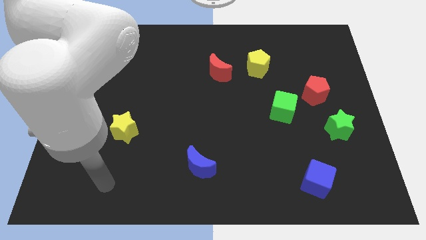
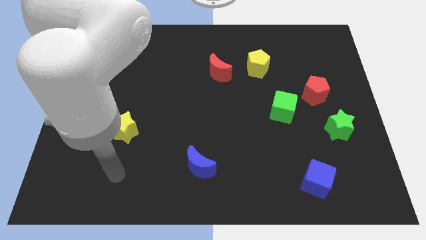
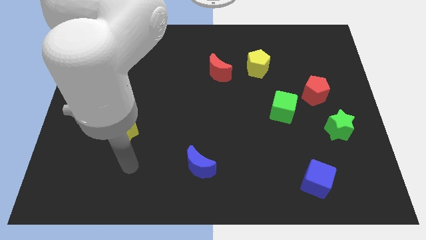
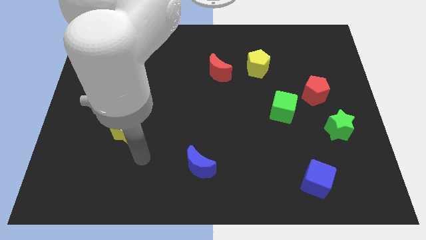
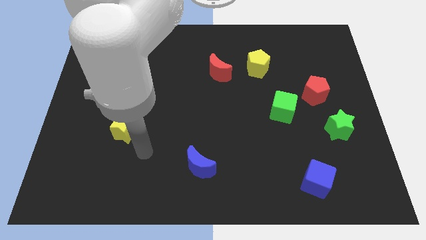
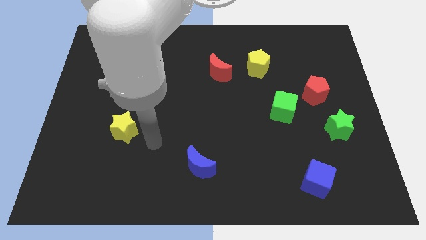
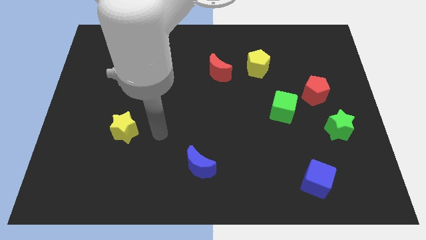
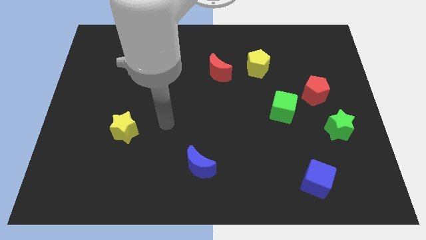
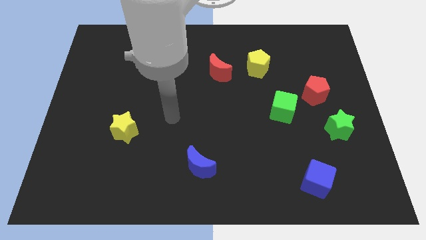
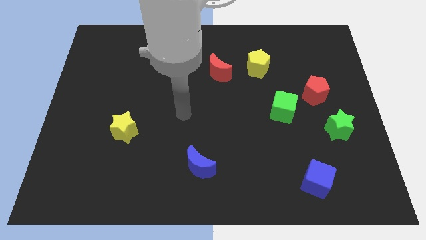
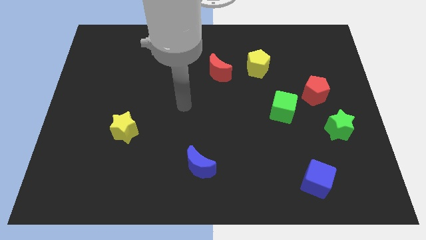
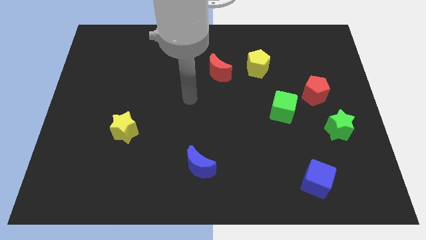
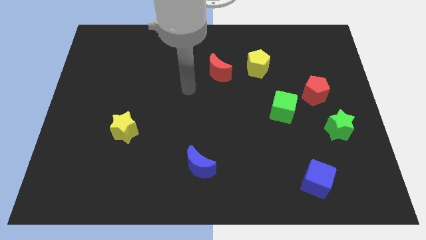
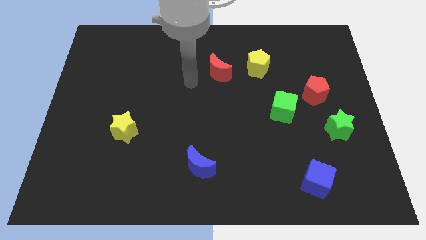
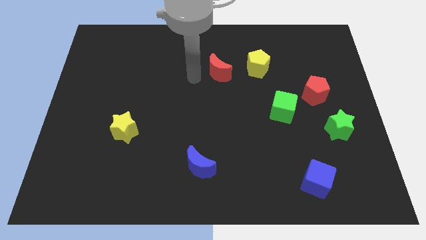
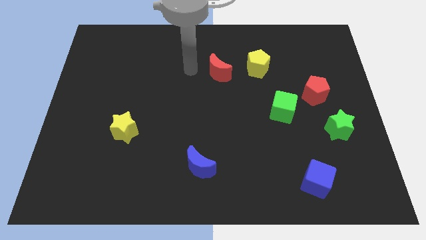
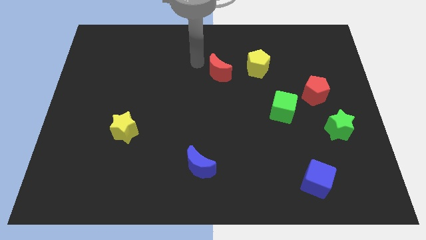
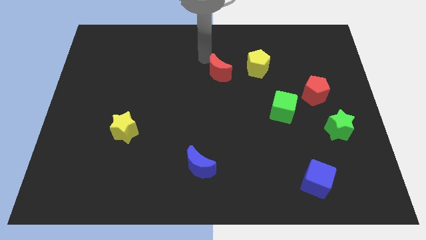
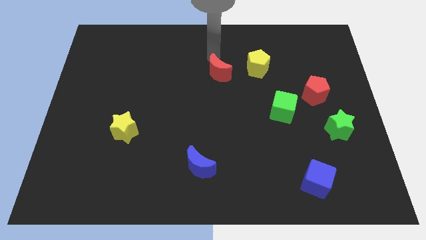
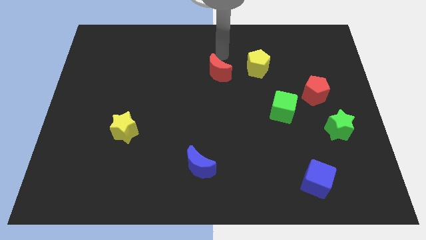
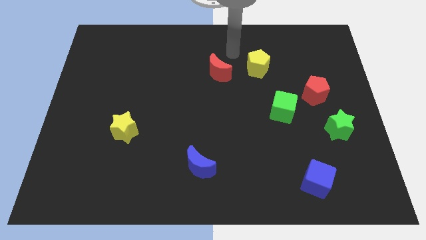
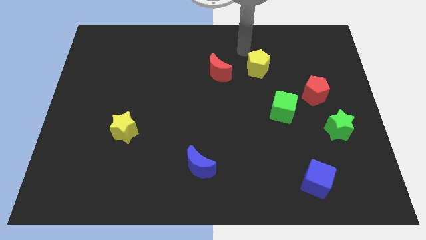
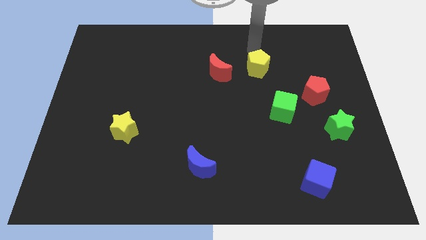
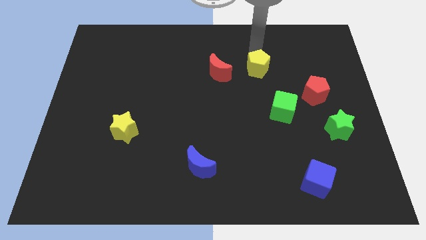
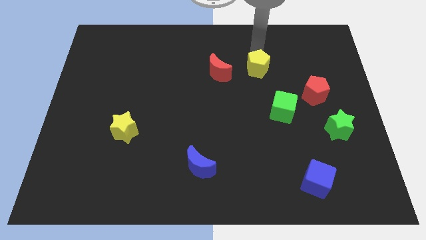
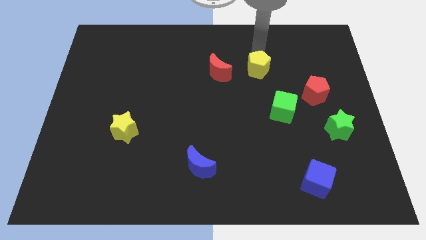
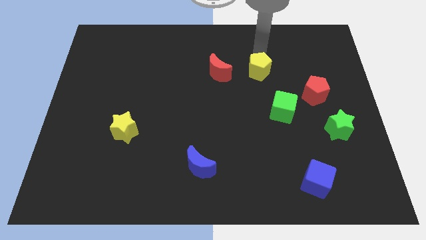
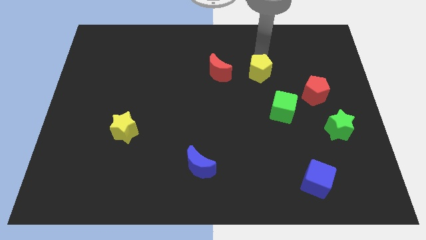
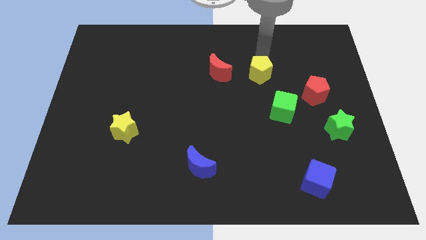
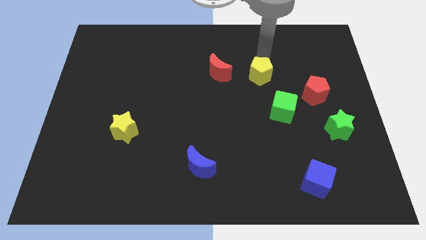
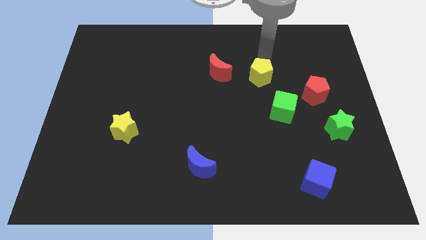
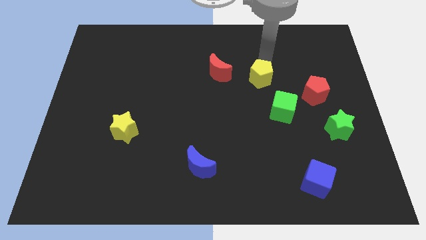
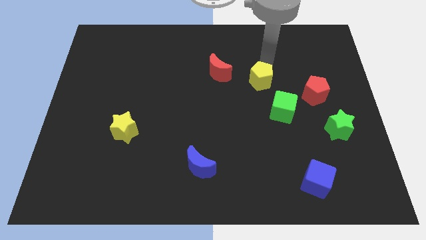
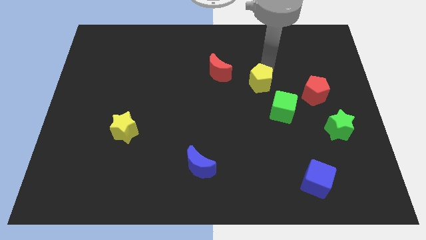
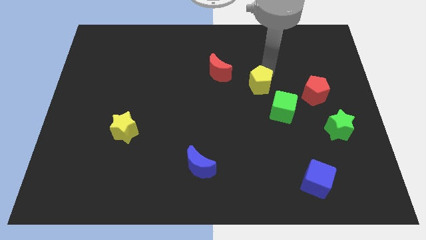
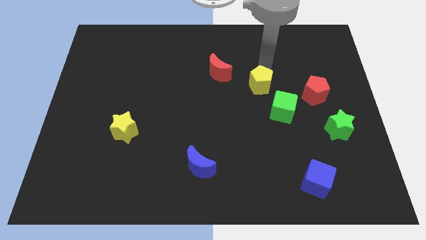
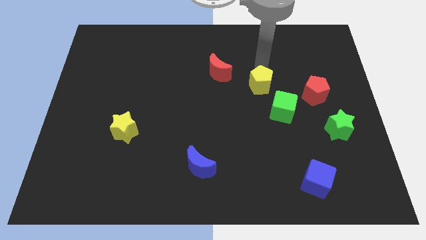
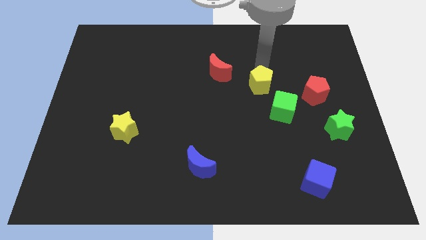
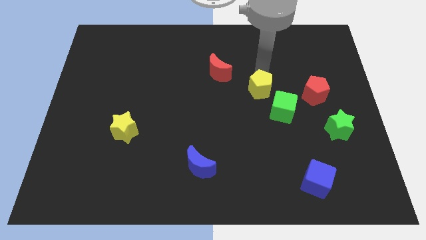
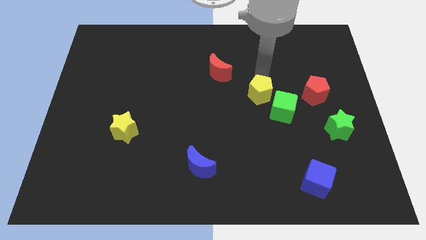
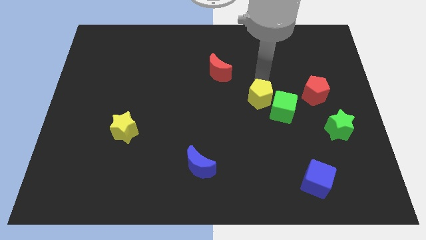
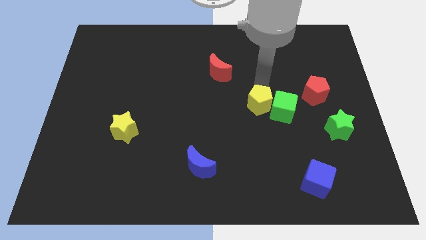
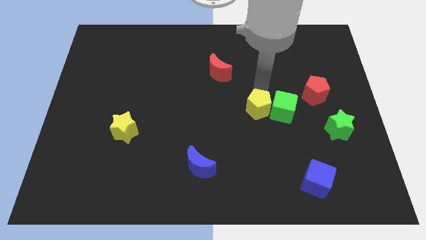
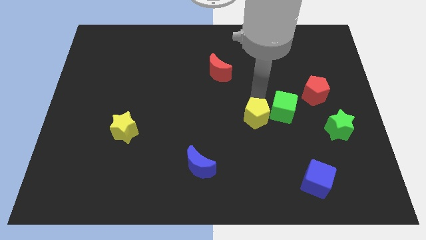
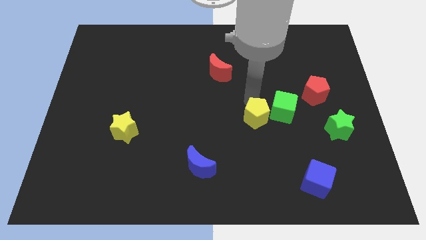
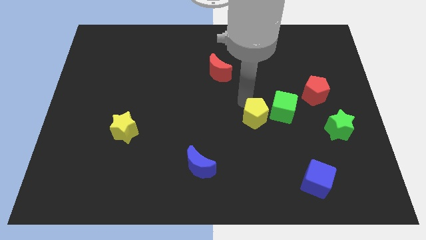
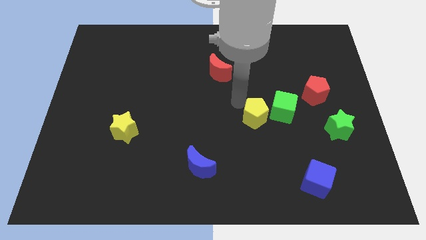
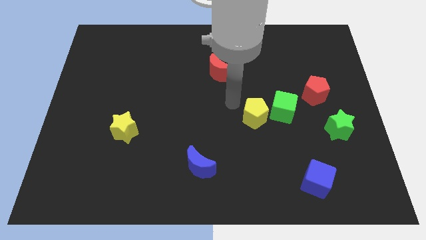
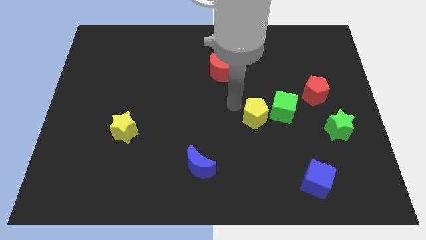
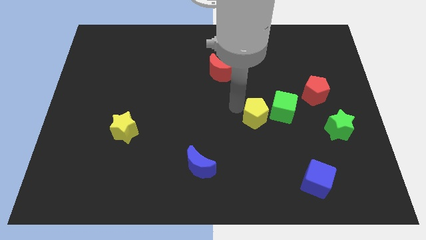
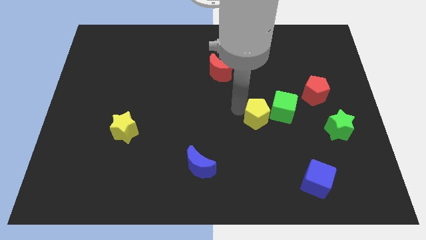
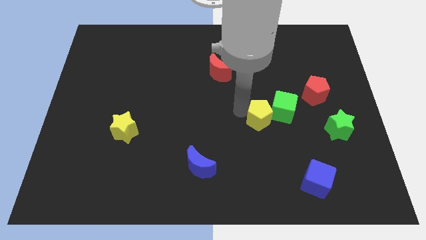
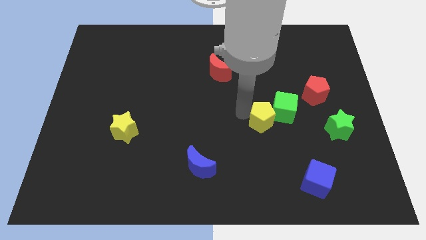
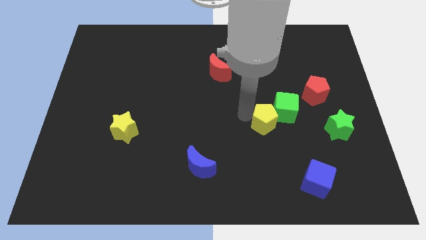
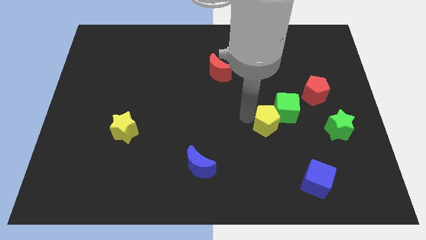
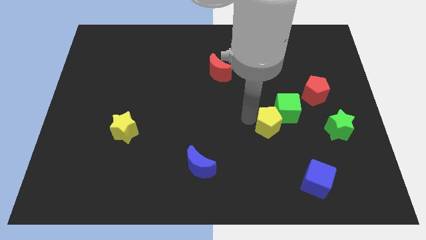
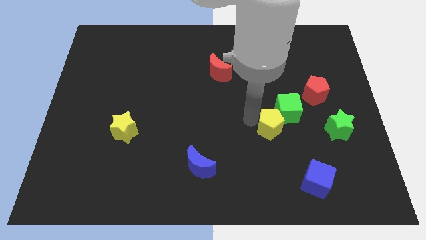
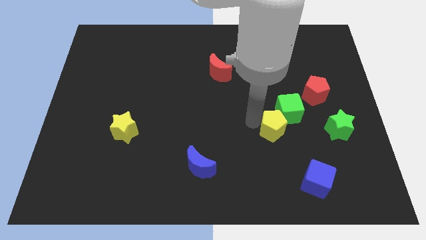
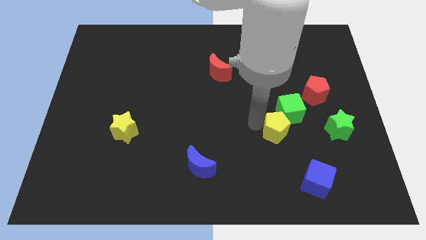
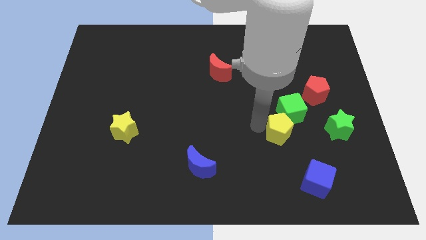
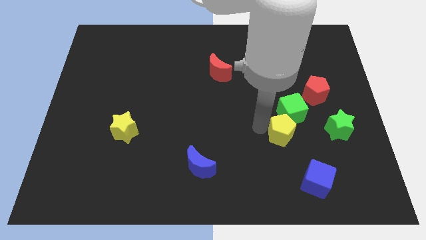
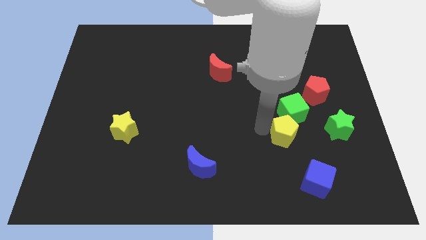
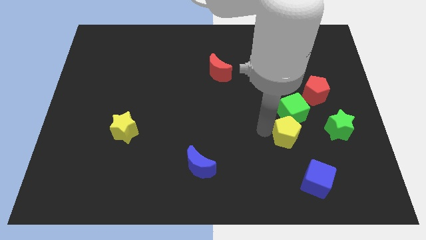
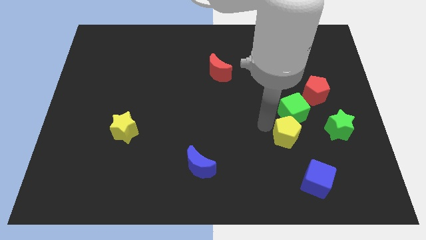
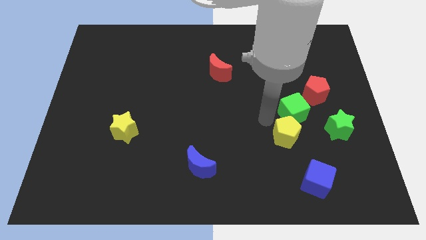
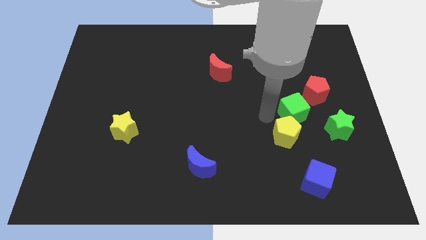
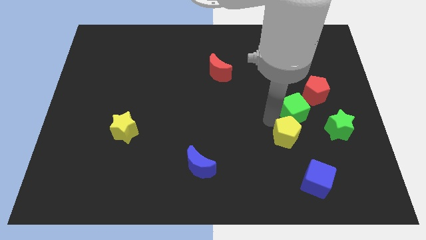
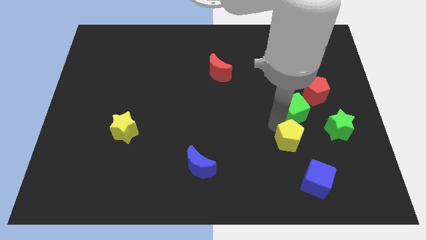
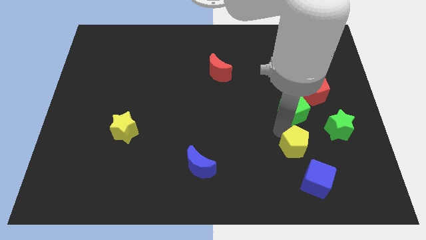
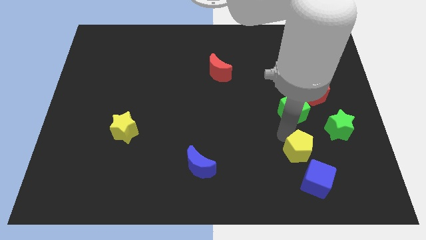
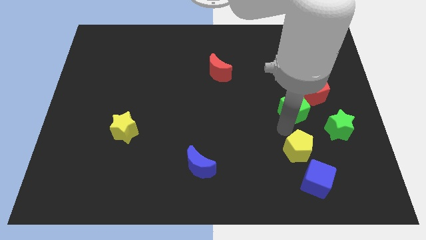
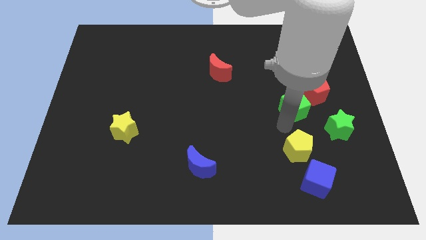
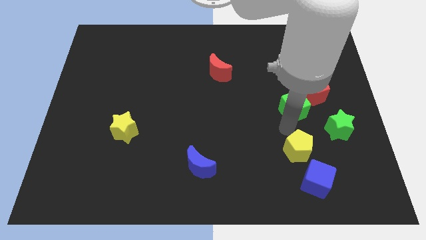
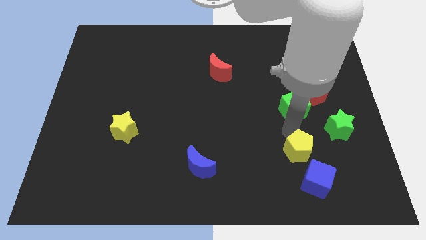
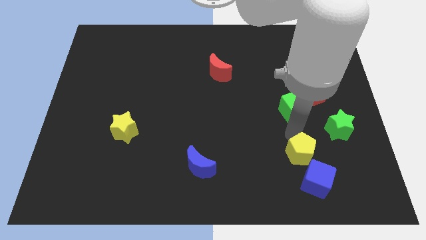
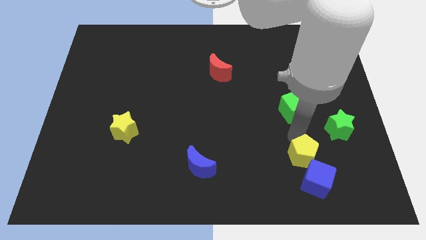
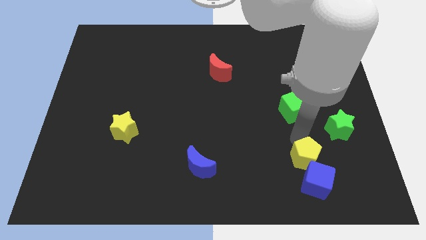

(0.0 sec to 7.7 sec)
move the yellow pentagon to the blue cube
